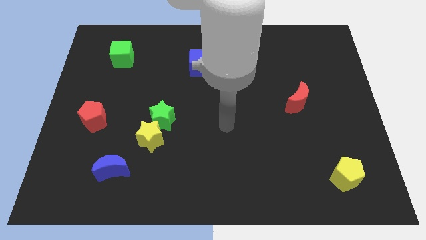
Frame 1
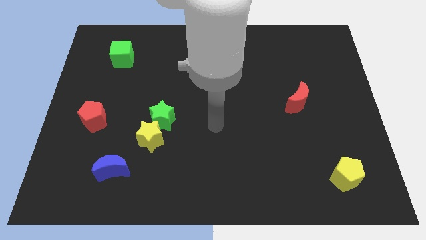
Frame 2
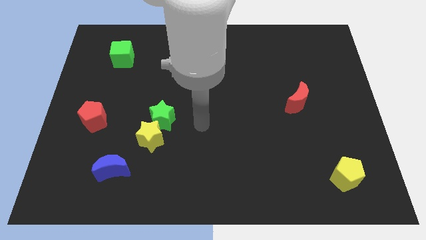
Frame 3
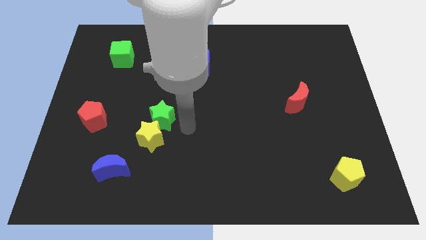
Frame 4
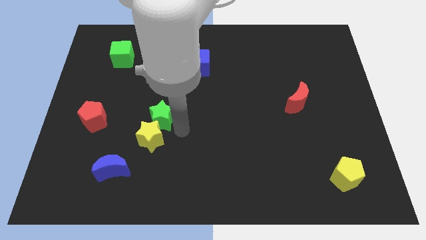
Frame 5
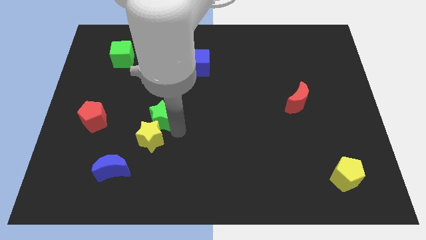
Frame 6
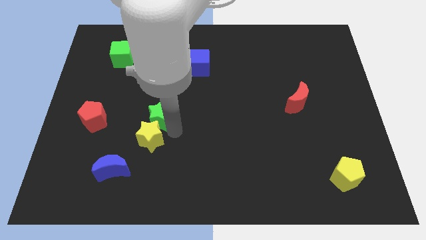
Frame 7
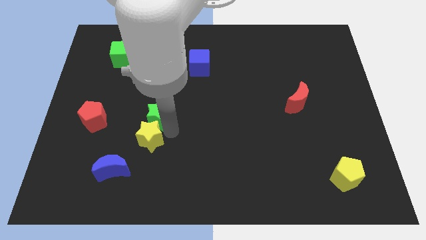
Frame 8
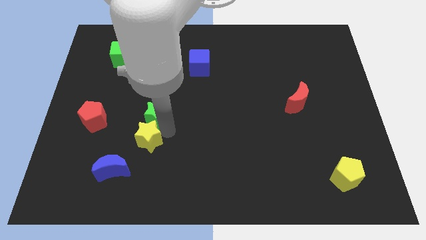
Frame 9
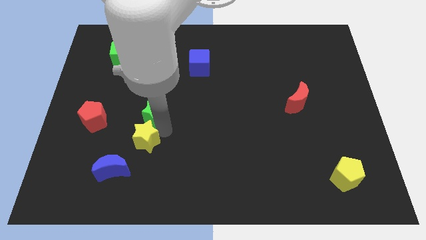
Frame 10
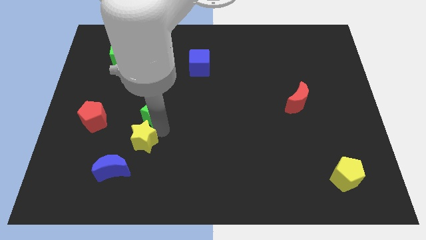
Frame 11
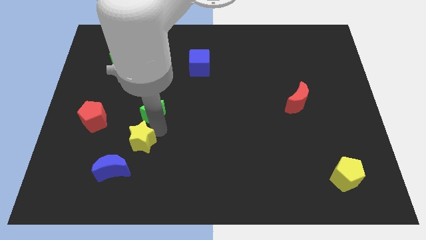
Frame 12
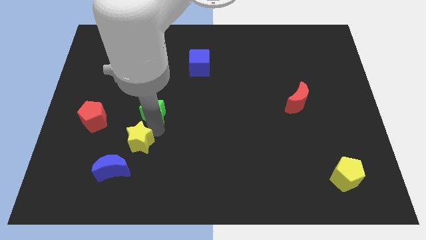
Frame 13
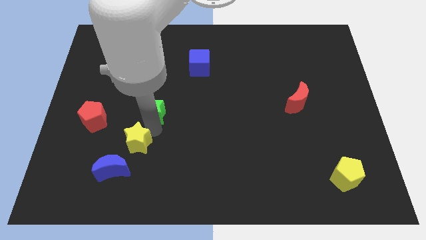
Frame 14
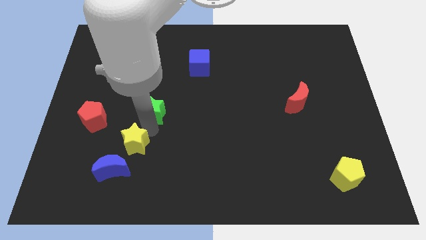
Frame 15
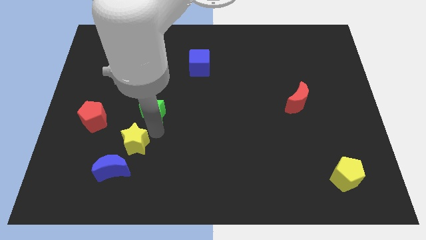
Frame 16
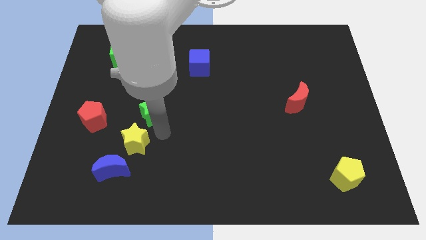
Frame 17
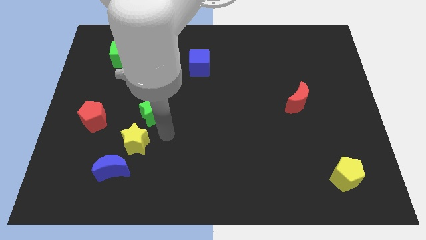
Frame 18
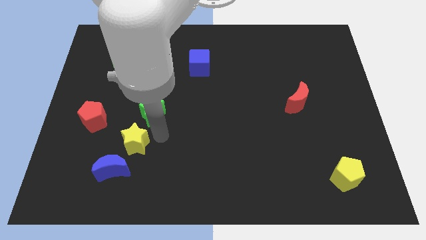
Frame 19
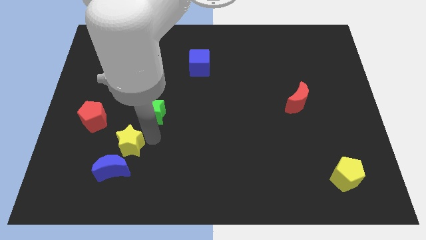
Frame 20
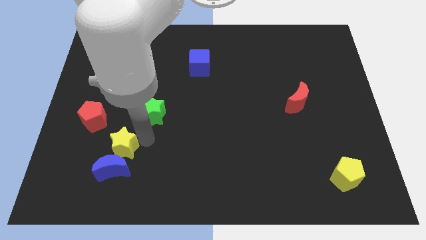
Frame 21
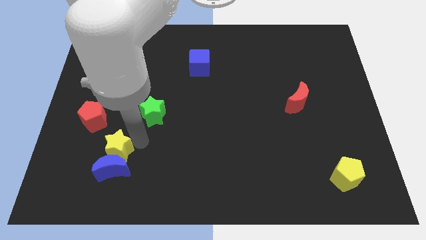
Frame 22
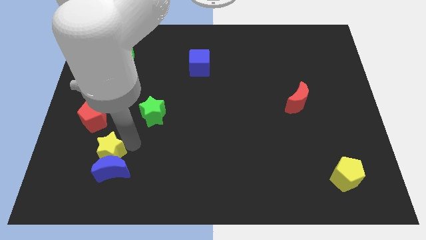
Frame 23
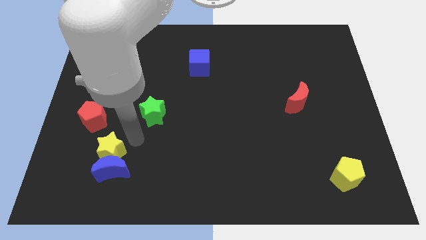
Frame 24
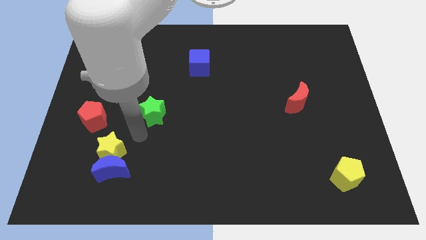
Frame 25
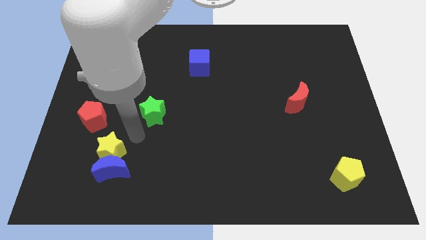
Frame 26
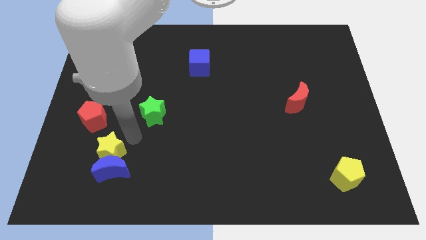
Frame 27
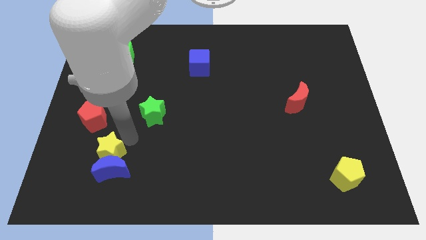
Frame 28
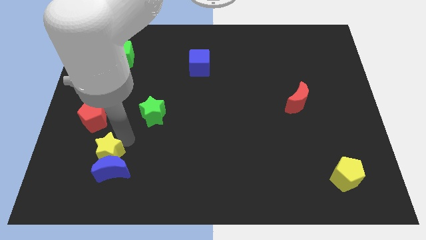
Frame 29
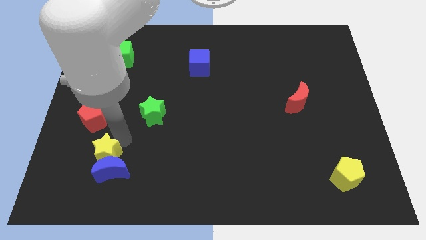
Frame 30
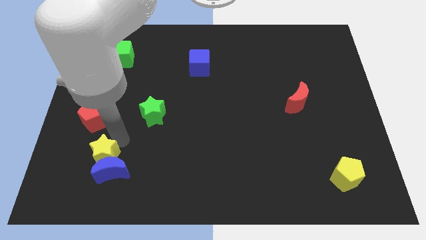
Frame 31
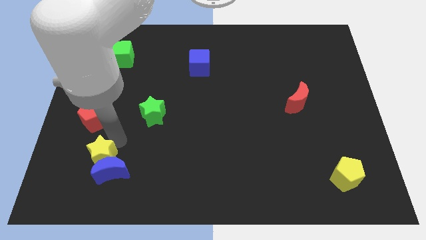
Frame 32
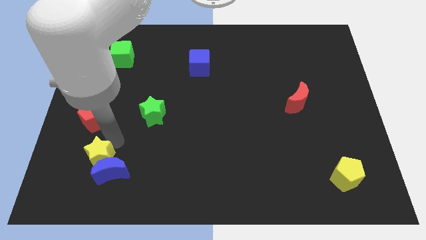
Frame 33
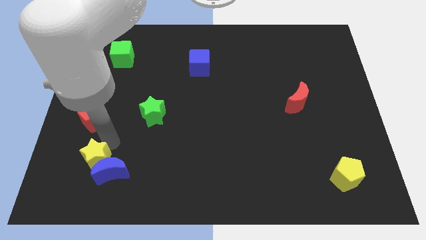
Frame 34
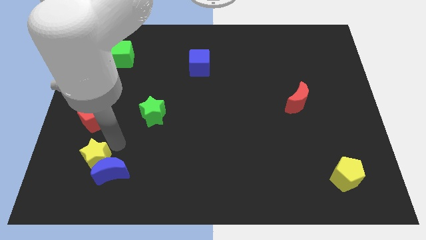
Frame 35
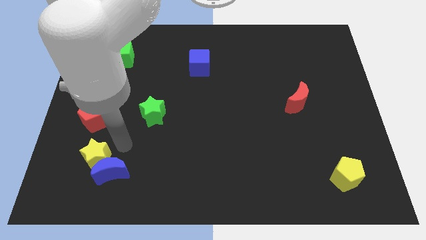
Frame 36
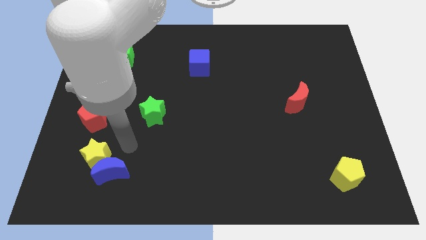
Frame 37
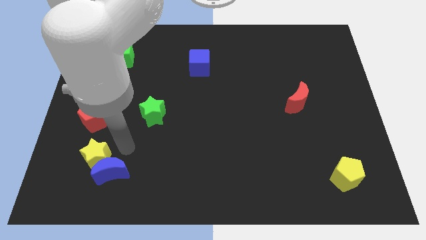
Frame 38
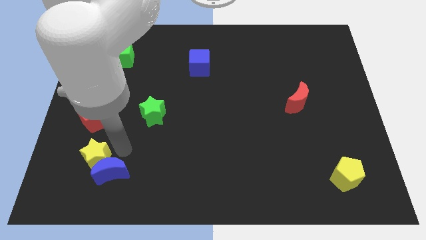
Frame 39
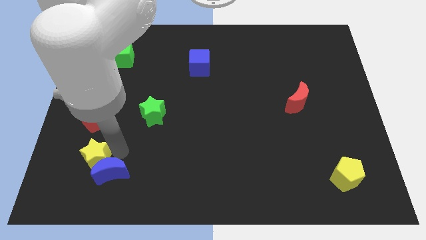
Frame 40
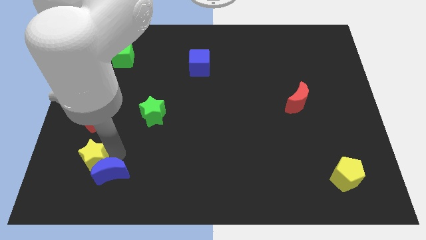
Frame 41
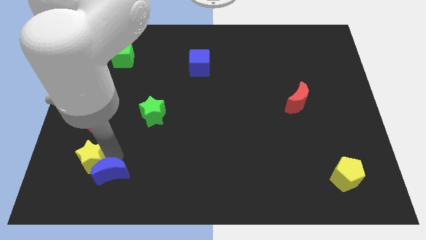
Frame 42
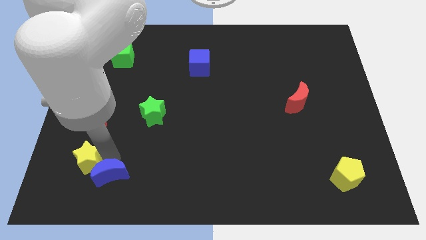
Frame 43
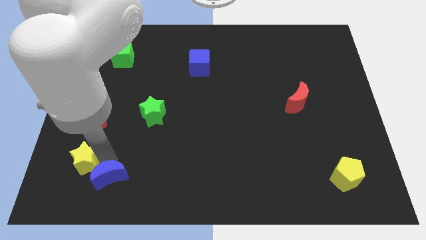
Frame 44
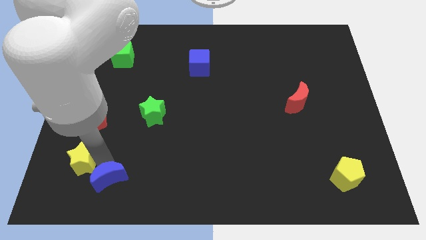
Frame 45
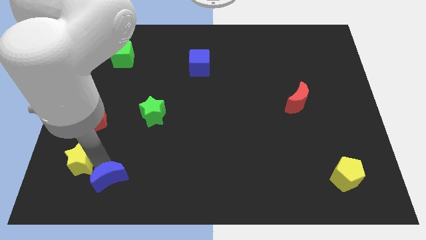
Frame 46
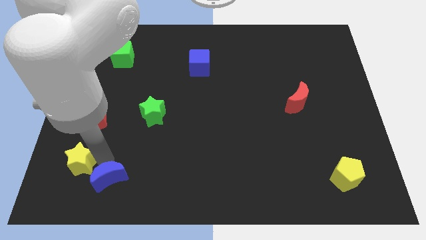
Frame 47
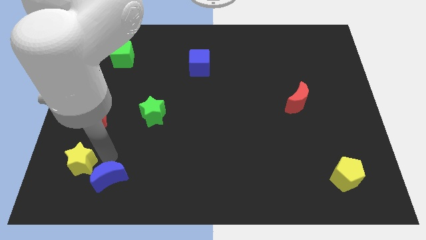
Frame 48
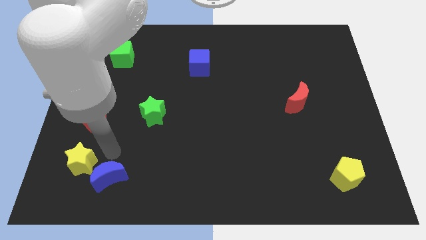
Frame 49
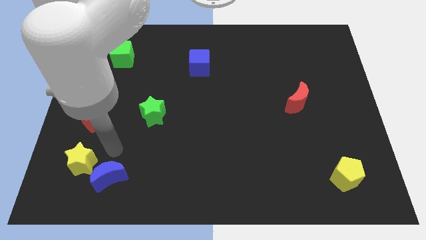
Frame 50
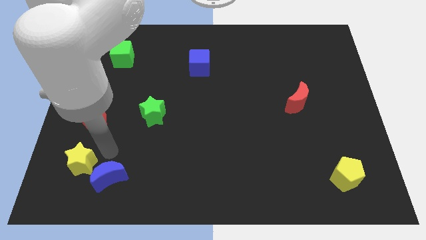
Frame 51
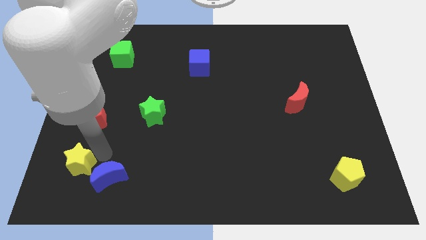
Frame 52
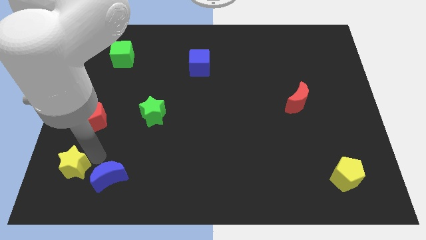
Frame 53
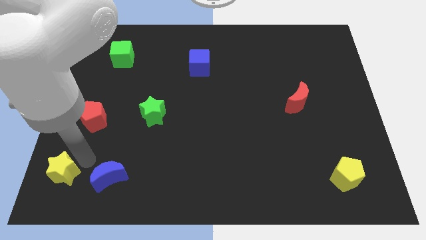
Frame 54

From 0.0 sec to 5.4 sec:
push the yellow star to the bottom left

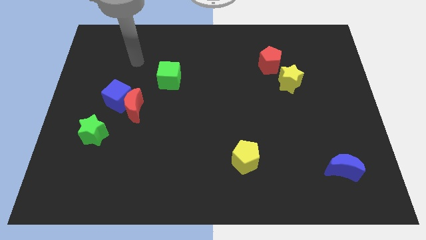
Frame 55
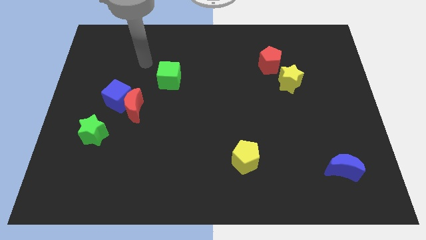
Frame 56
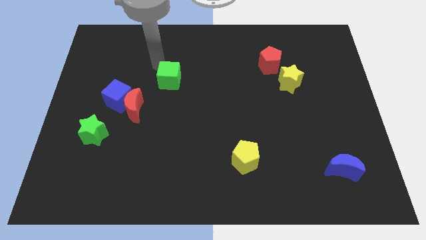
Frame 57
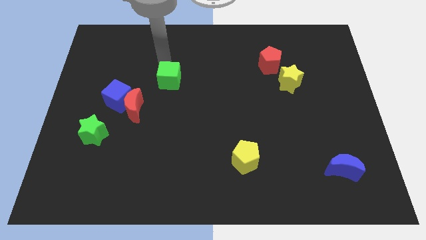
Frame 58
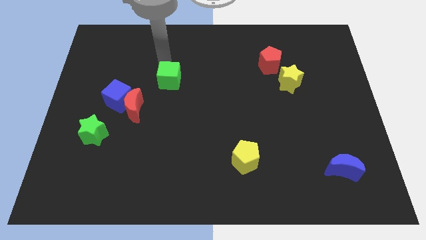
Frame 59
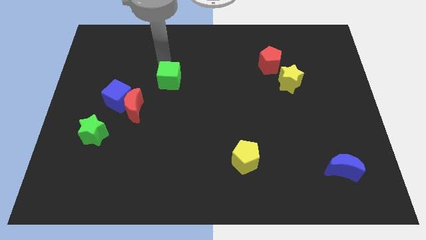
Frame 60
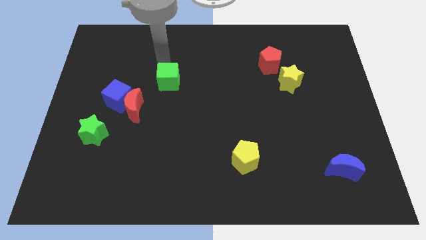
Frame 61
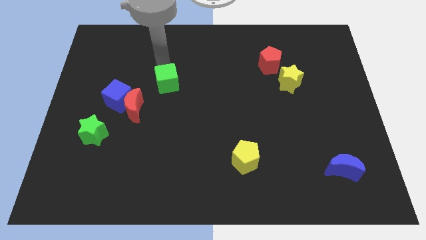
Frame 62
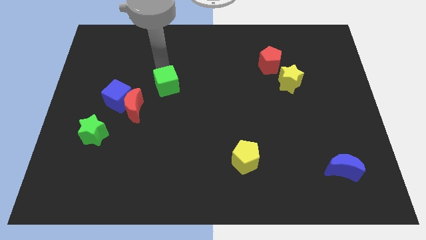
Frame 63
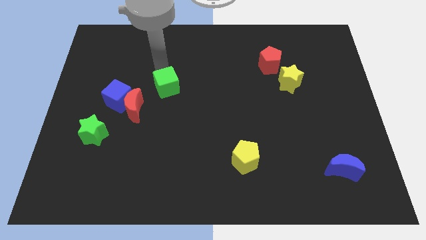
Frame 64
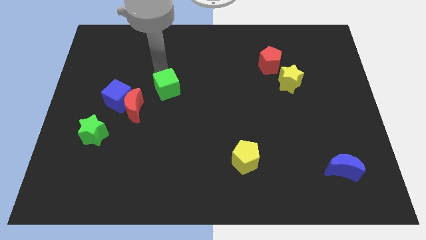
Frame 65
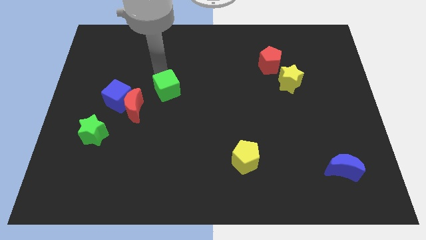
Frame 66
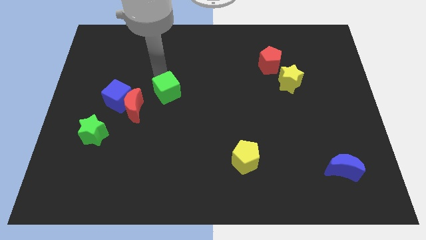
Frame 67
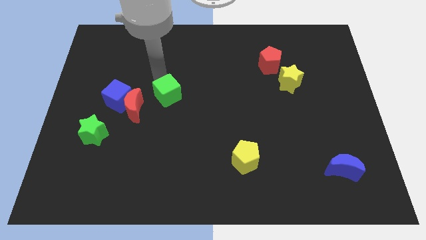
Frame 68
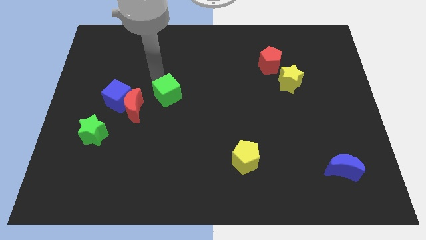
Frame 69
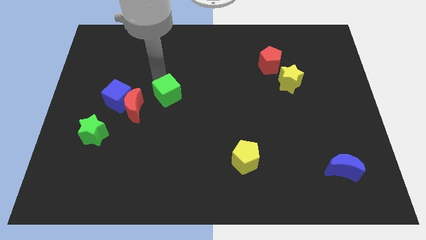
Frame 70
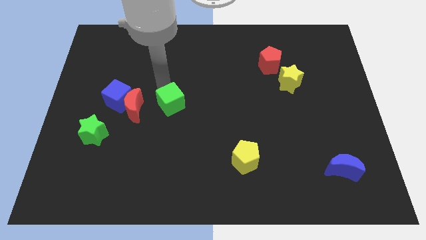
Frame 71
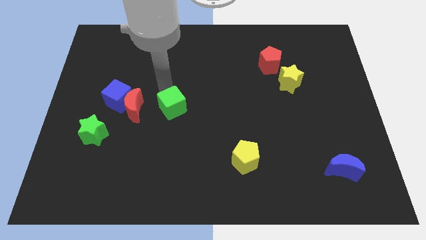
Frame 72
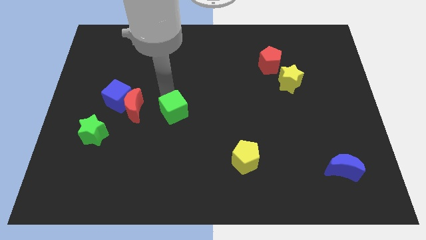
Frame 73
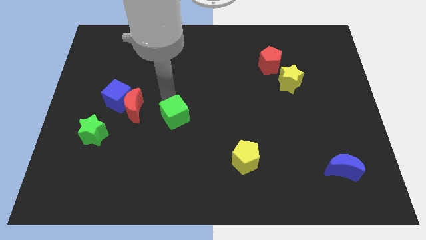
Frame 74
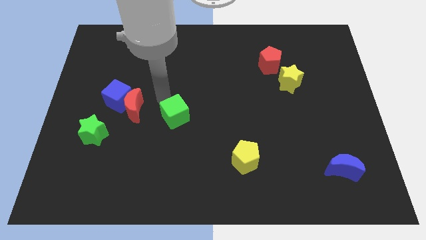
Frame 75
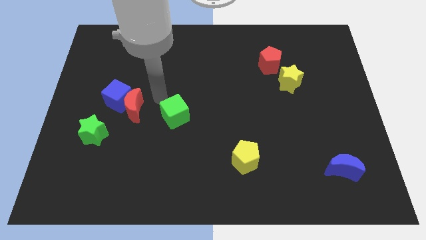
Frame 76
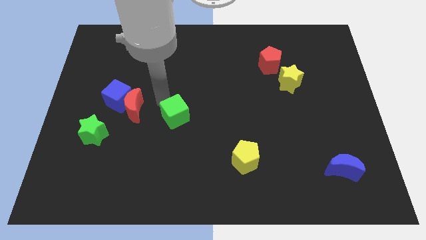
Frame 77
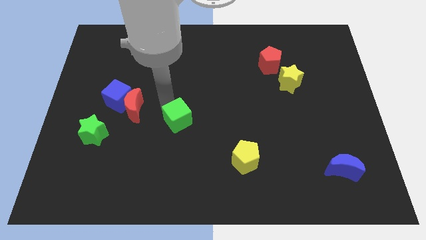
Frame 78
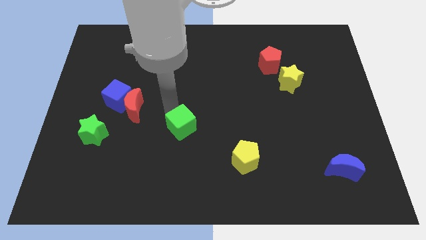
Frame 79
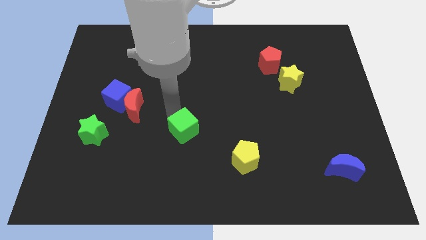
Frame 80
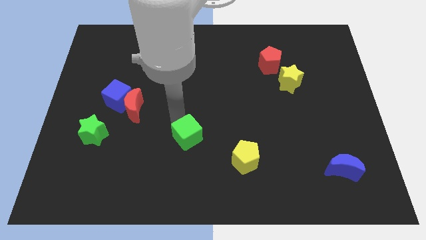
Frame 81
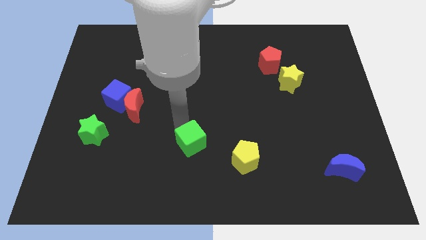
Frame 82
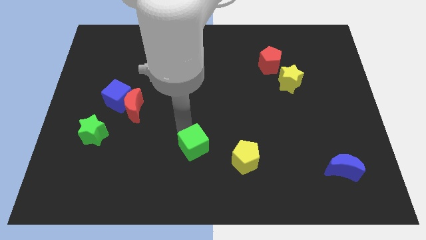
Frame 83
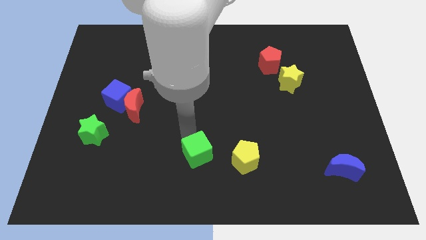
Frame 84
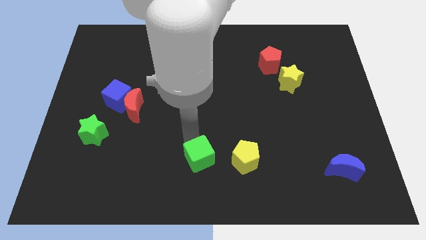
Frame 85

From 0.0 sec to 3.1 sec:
push the green cube to the bottom

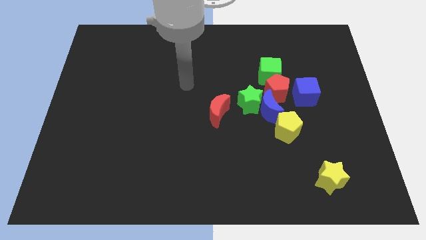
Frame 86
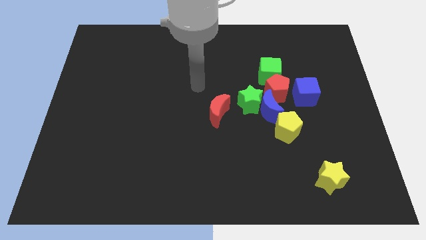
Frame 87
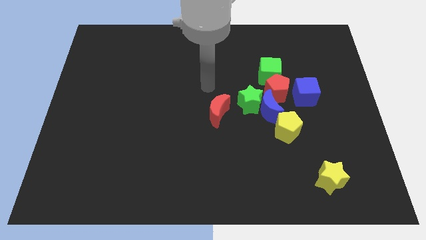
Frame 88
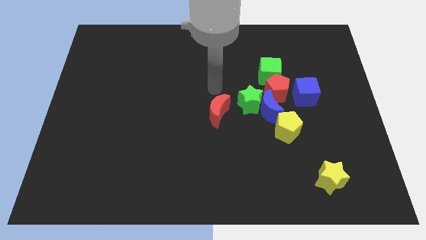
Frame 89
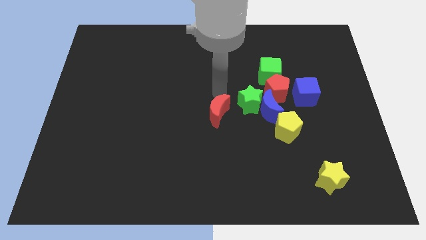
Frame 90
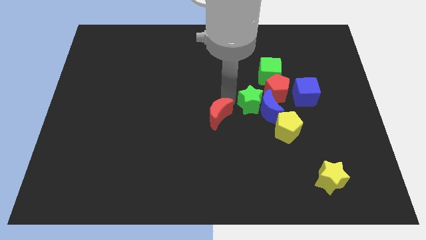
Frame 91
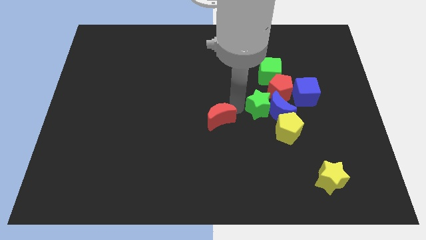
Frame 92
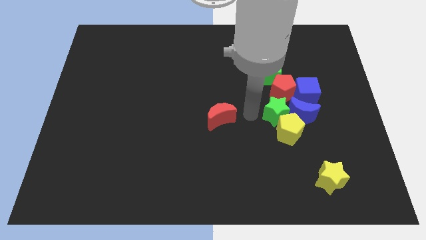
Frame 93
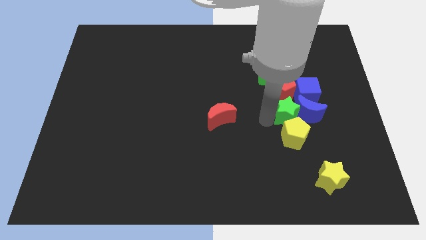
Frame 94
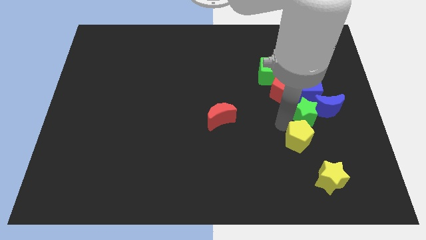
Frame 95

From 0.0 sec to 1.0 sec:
push the blue moon to the right side of the board
